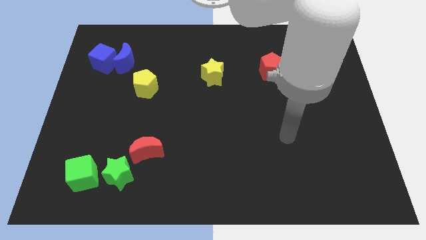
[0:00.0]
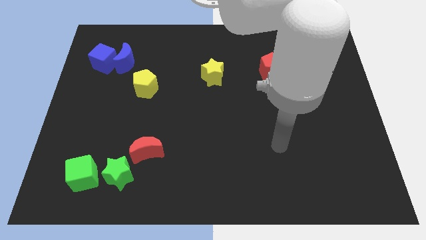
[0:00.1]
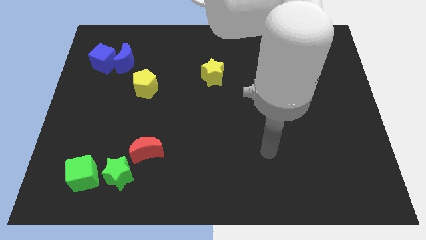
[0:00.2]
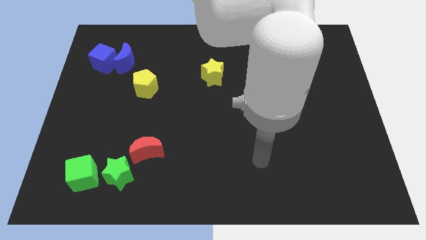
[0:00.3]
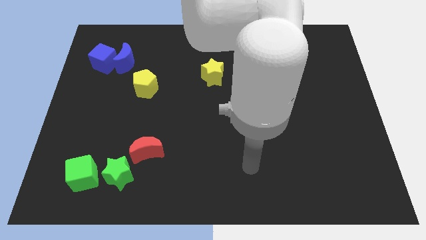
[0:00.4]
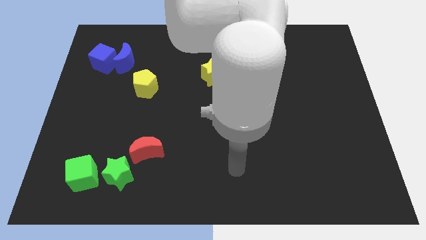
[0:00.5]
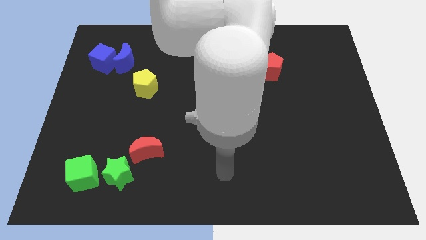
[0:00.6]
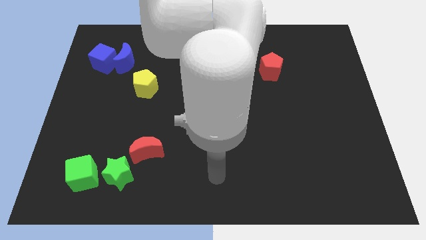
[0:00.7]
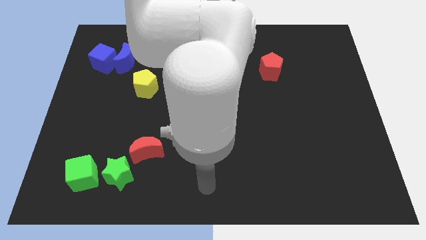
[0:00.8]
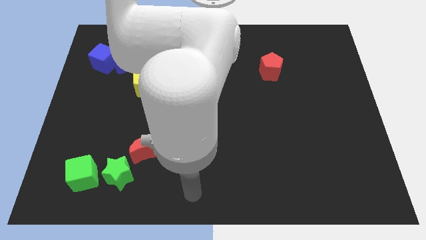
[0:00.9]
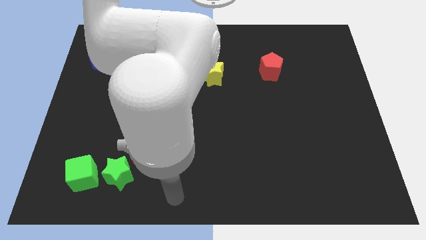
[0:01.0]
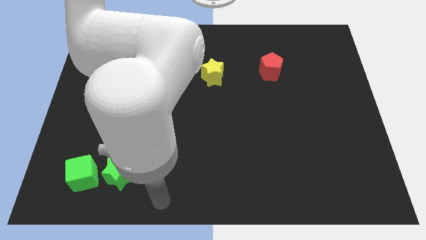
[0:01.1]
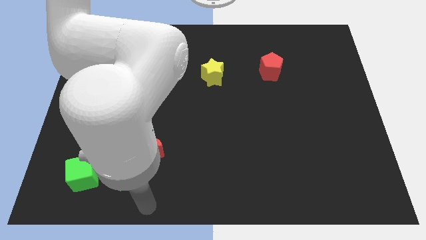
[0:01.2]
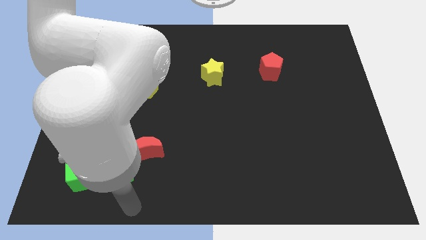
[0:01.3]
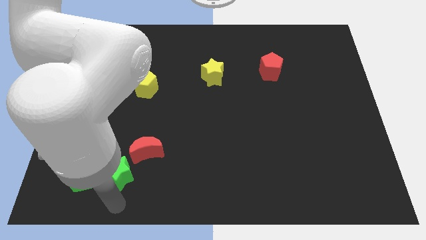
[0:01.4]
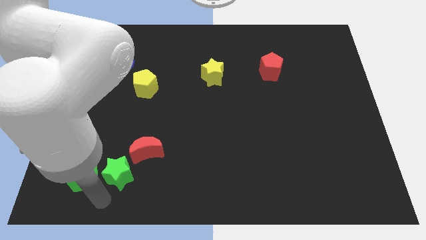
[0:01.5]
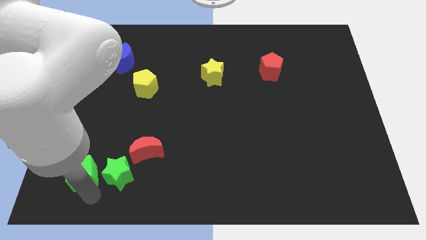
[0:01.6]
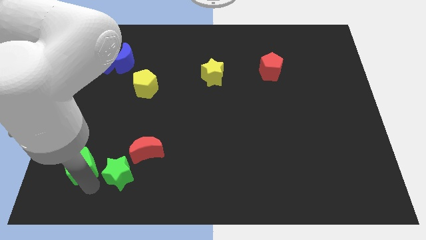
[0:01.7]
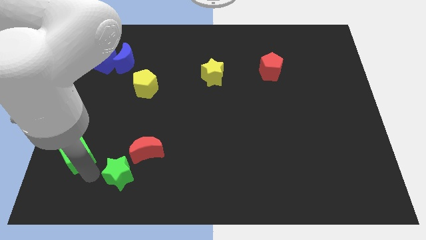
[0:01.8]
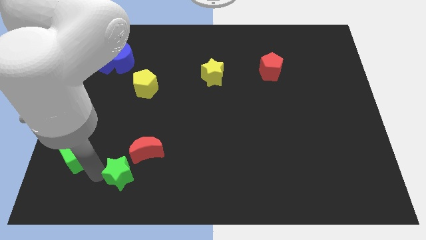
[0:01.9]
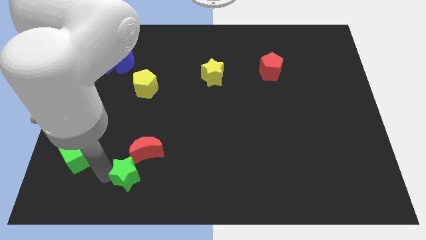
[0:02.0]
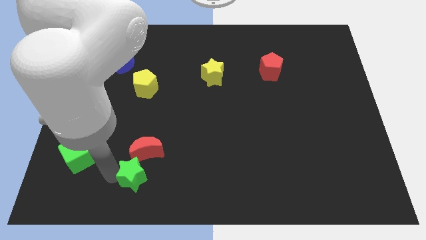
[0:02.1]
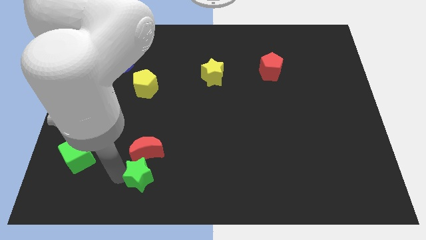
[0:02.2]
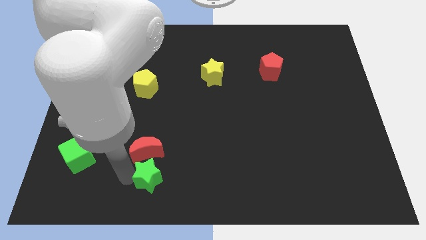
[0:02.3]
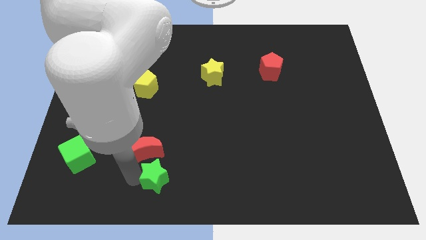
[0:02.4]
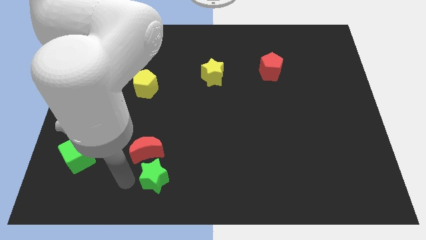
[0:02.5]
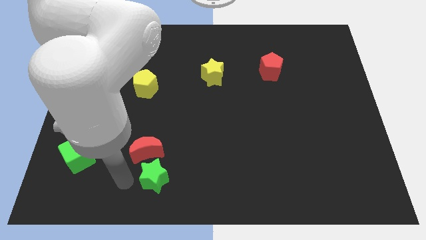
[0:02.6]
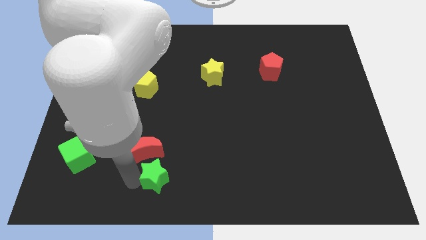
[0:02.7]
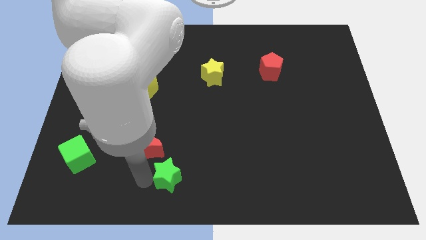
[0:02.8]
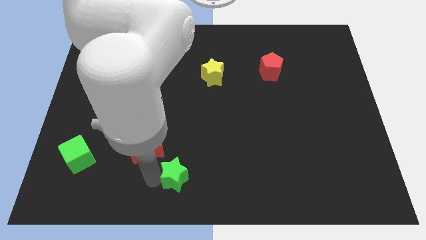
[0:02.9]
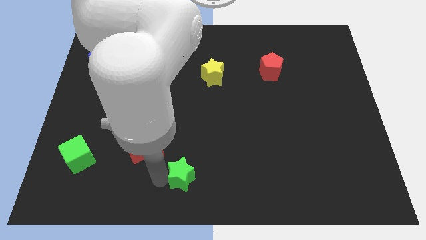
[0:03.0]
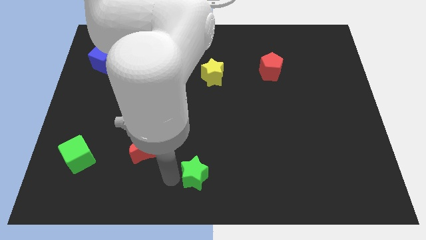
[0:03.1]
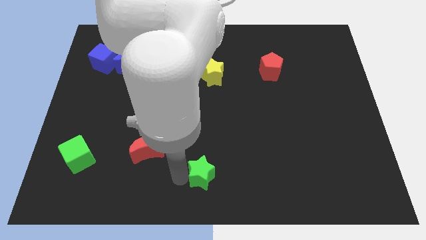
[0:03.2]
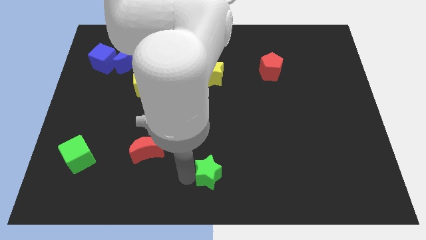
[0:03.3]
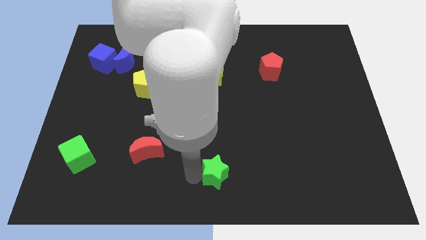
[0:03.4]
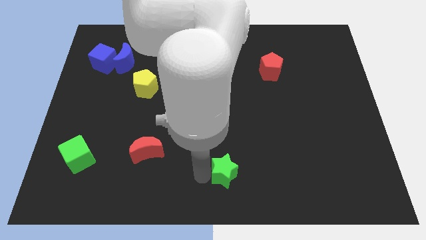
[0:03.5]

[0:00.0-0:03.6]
slide the green star right

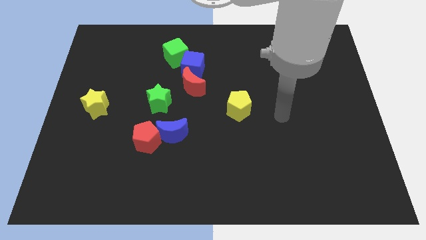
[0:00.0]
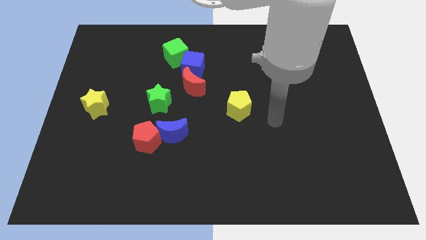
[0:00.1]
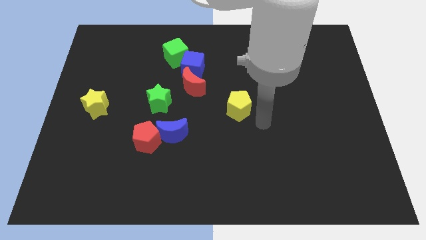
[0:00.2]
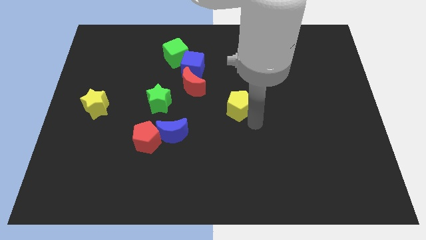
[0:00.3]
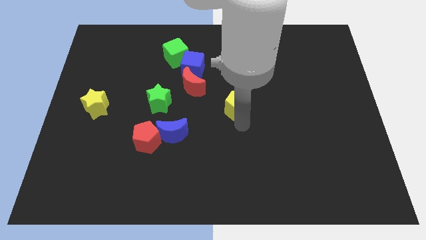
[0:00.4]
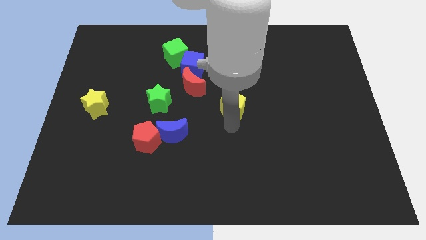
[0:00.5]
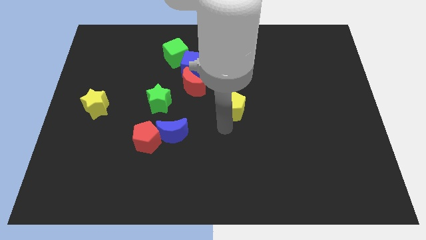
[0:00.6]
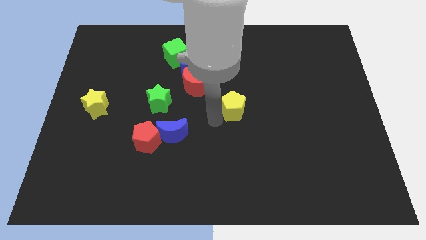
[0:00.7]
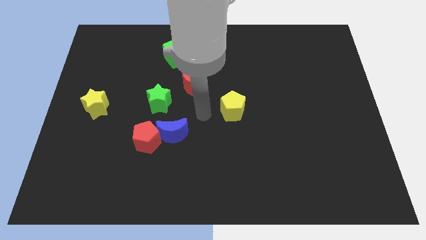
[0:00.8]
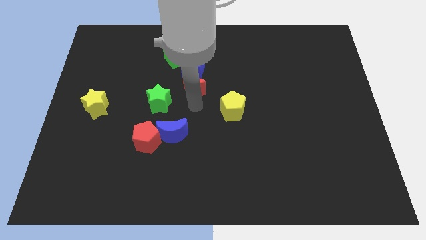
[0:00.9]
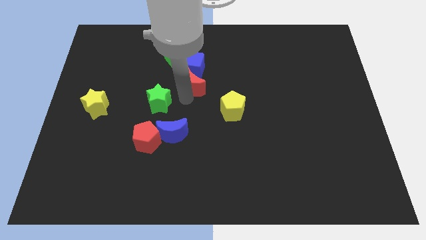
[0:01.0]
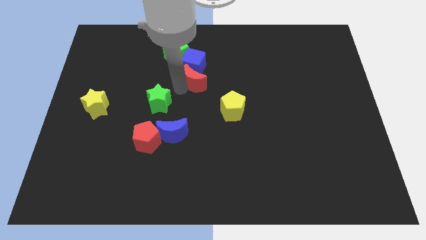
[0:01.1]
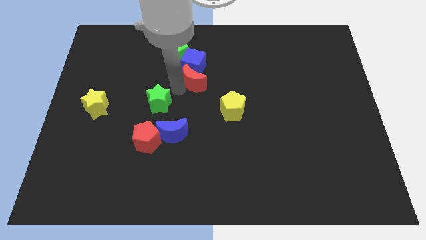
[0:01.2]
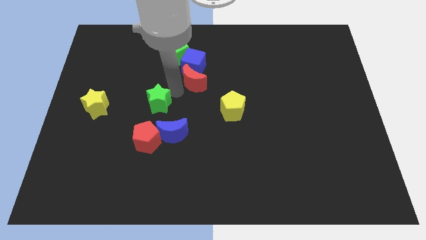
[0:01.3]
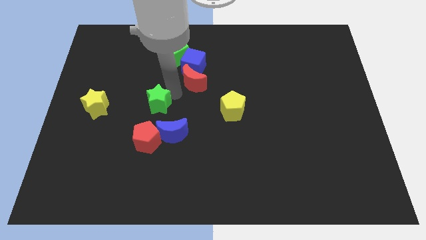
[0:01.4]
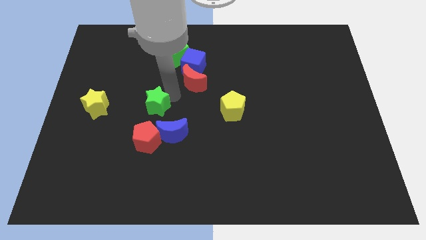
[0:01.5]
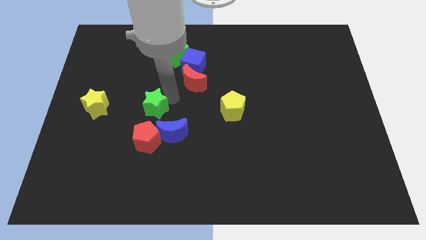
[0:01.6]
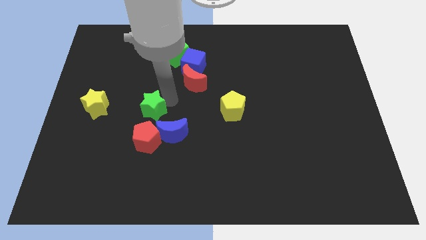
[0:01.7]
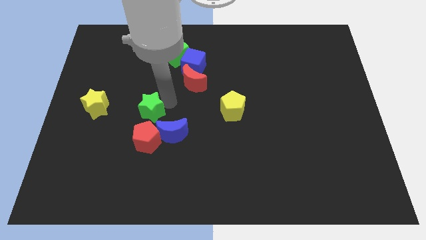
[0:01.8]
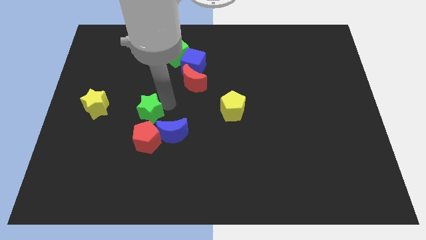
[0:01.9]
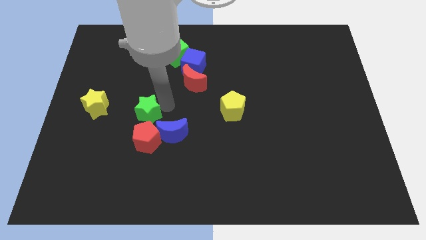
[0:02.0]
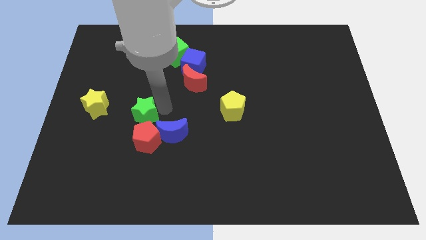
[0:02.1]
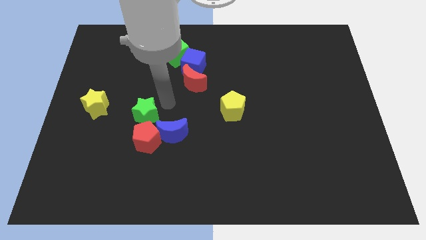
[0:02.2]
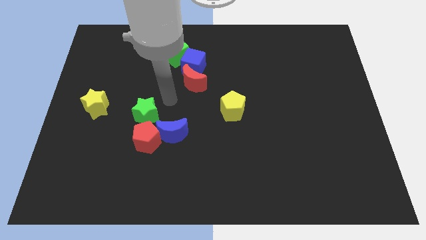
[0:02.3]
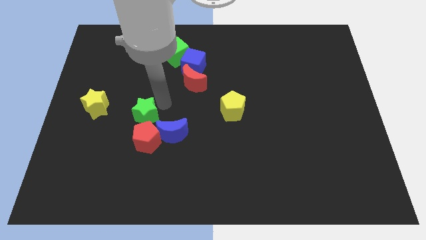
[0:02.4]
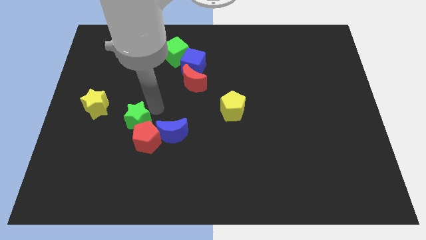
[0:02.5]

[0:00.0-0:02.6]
slide the green star slightly downwards and left

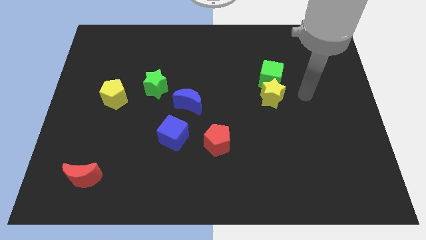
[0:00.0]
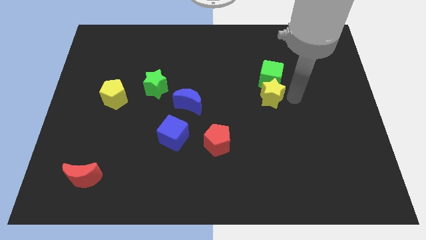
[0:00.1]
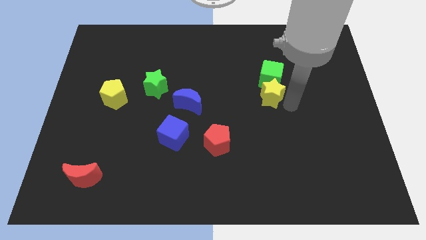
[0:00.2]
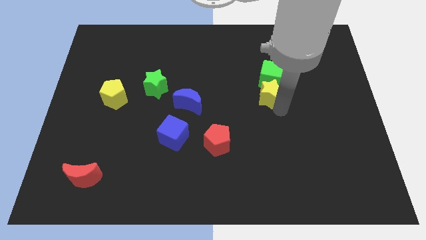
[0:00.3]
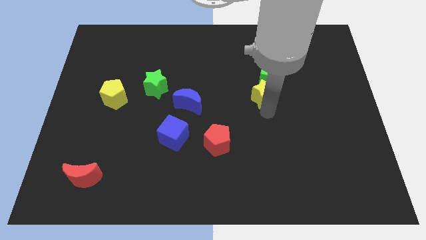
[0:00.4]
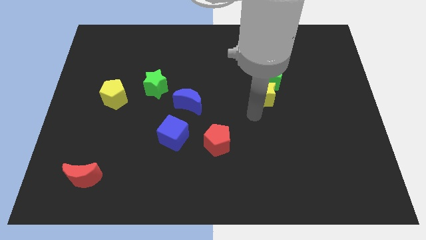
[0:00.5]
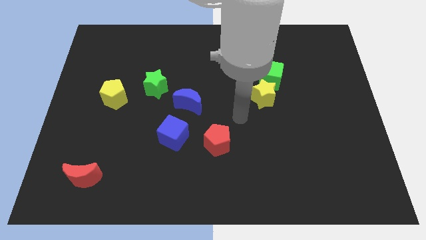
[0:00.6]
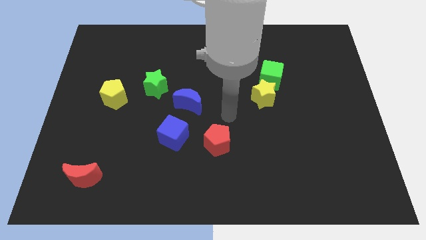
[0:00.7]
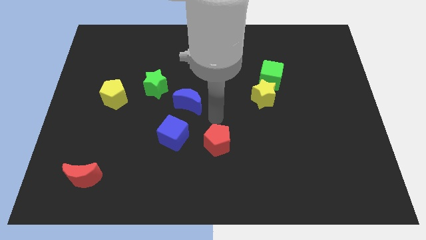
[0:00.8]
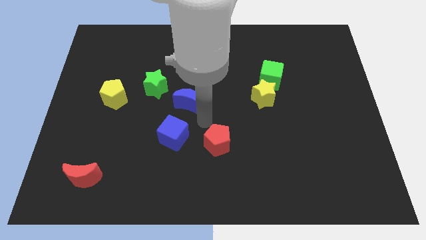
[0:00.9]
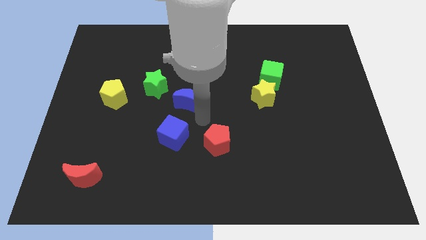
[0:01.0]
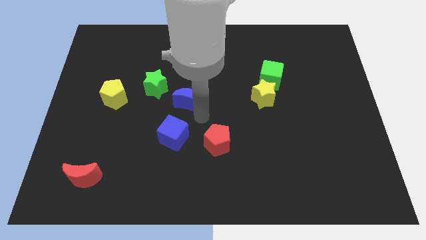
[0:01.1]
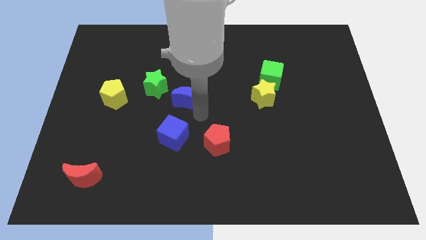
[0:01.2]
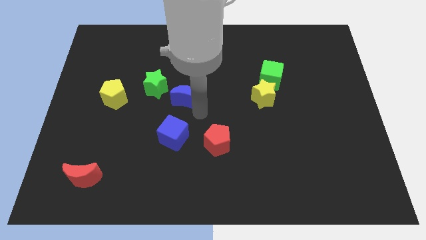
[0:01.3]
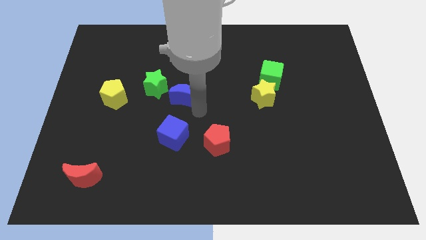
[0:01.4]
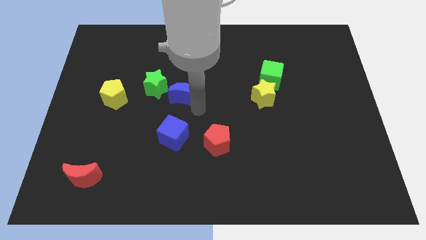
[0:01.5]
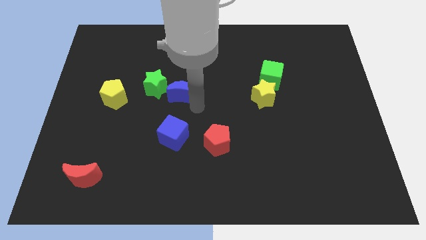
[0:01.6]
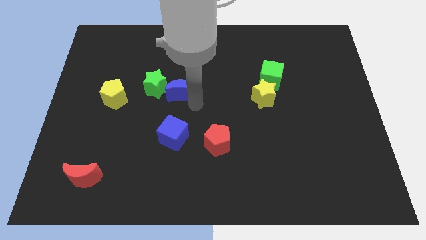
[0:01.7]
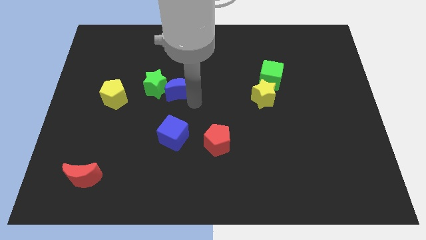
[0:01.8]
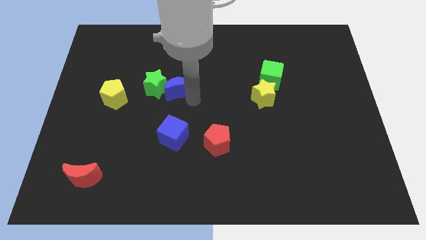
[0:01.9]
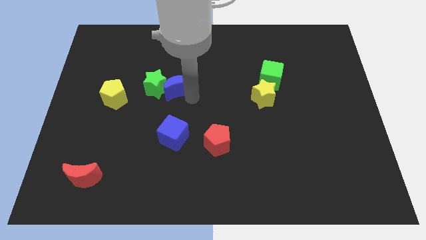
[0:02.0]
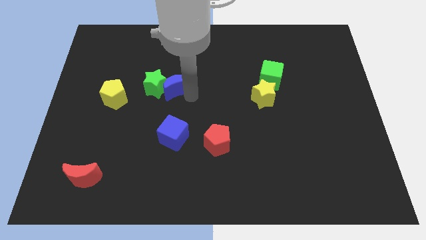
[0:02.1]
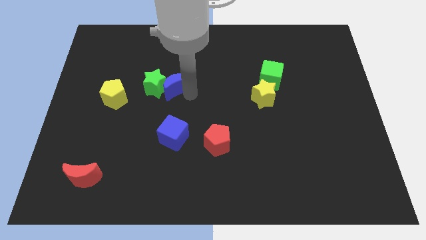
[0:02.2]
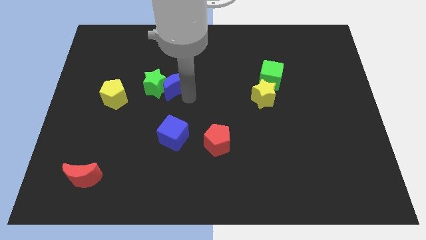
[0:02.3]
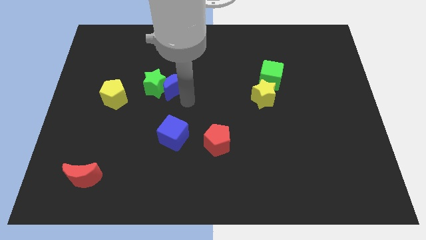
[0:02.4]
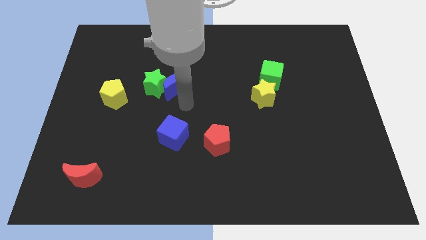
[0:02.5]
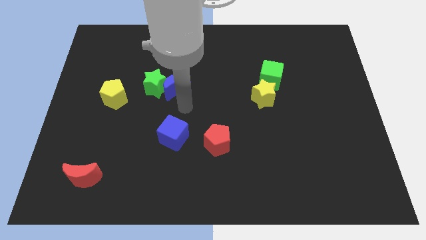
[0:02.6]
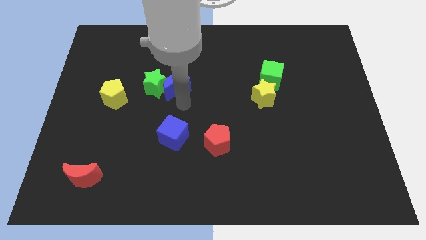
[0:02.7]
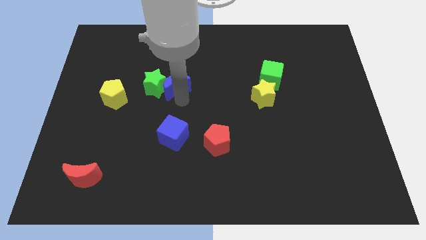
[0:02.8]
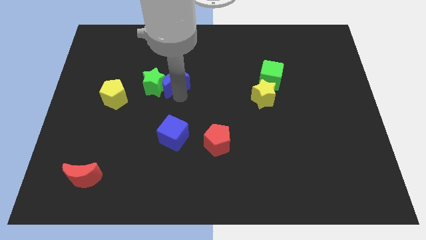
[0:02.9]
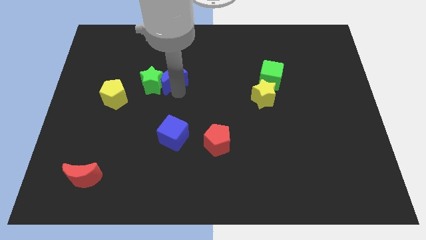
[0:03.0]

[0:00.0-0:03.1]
slide the blue moon upwards and left diagonally a little bit
